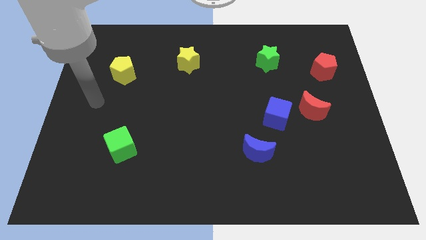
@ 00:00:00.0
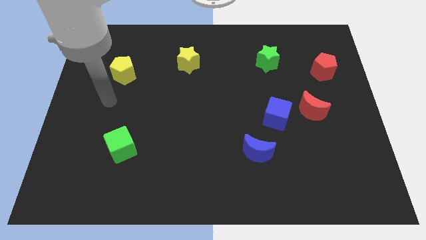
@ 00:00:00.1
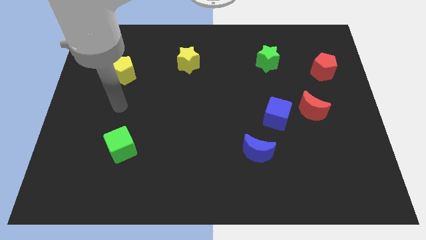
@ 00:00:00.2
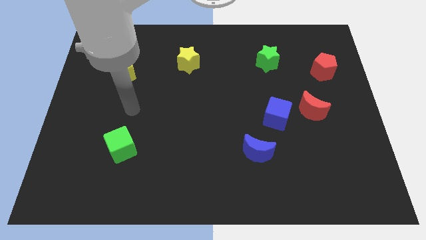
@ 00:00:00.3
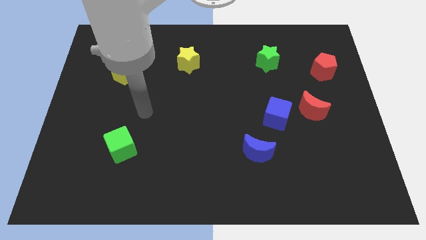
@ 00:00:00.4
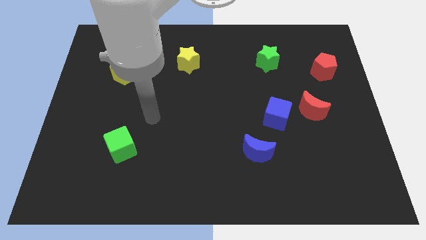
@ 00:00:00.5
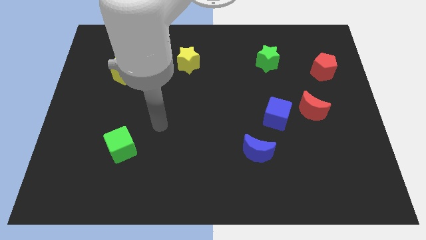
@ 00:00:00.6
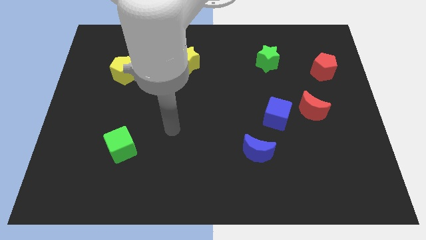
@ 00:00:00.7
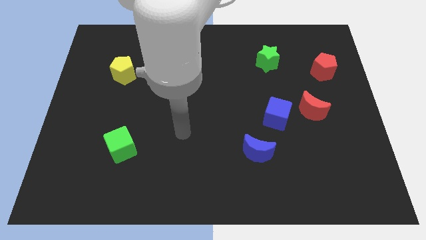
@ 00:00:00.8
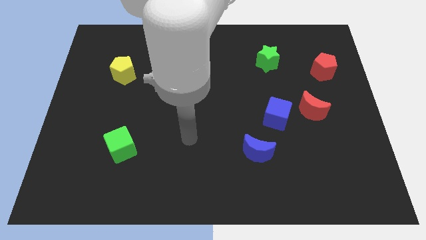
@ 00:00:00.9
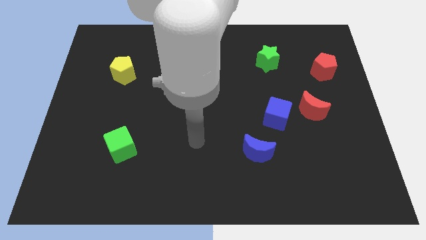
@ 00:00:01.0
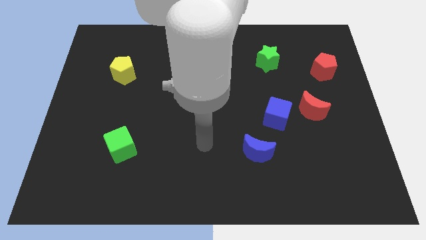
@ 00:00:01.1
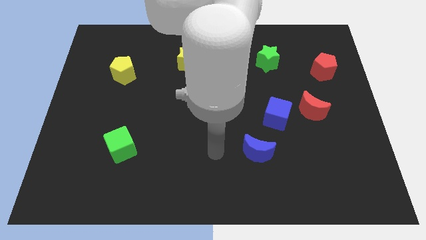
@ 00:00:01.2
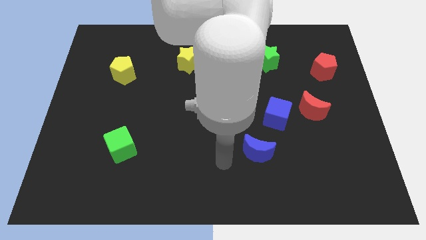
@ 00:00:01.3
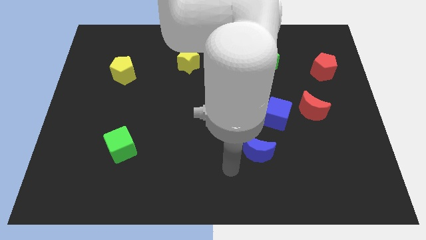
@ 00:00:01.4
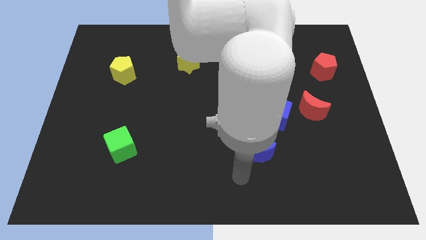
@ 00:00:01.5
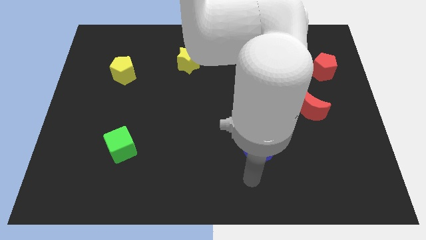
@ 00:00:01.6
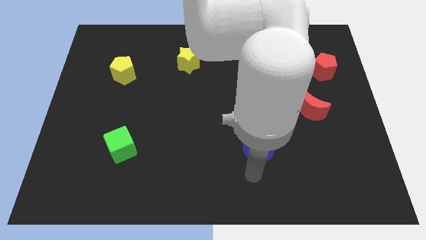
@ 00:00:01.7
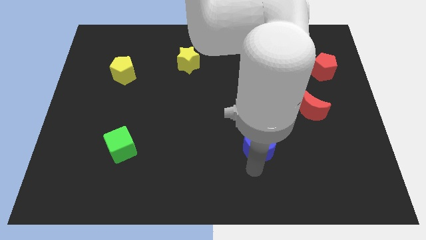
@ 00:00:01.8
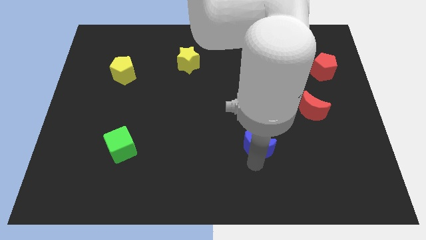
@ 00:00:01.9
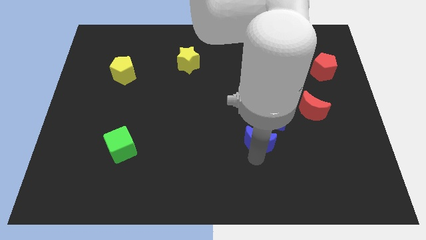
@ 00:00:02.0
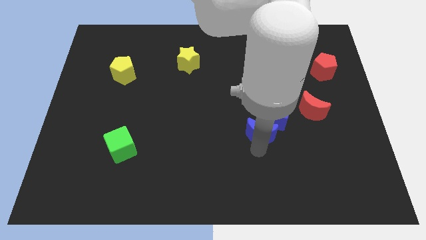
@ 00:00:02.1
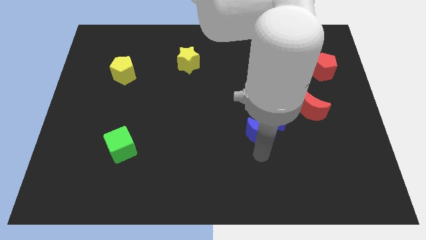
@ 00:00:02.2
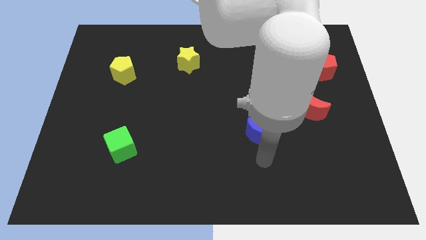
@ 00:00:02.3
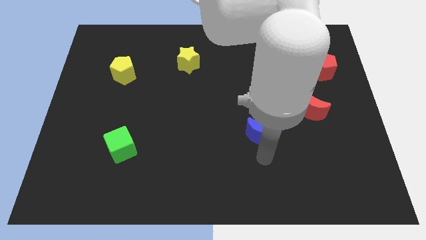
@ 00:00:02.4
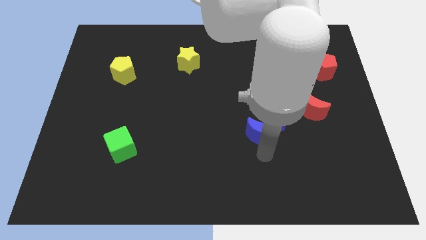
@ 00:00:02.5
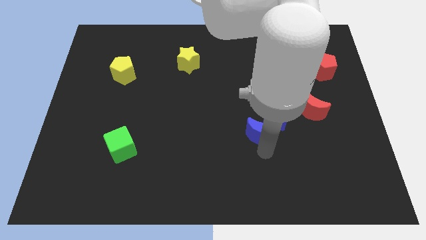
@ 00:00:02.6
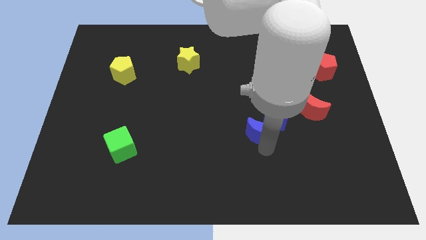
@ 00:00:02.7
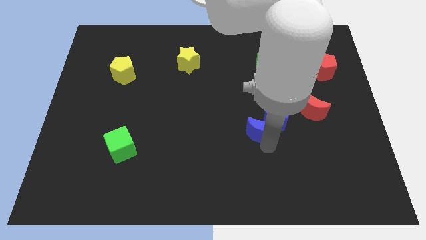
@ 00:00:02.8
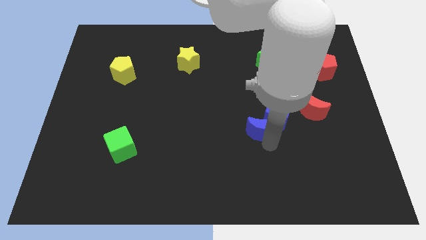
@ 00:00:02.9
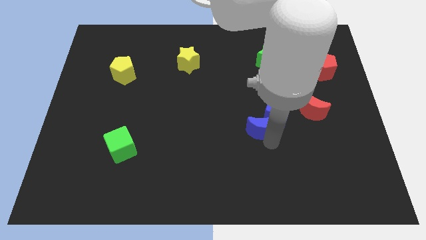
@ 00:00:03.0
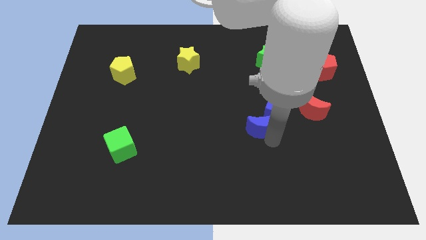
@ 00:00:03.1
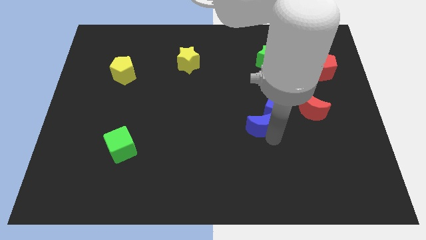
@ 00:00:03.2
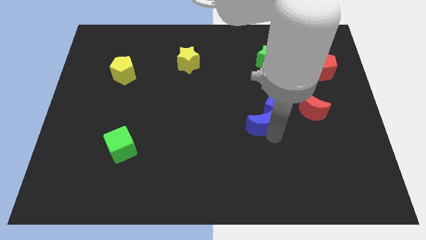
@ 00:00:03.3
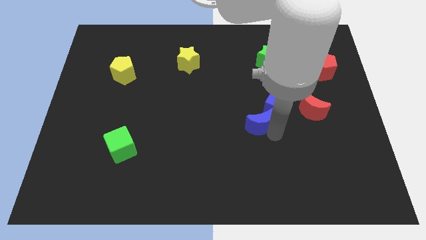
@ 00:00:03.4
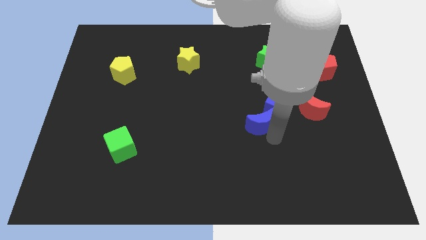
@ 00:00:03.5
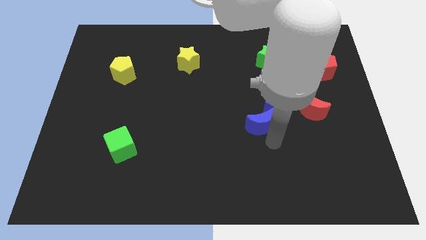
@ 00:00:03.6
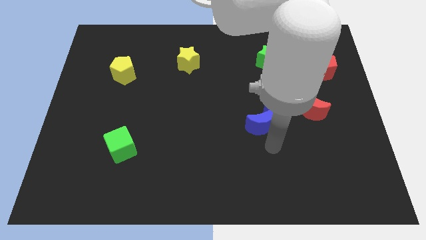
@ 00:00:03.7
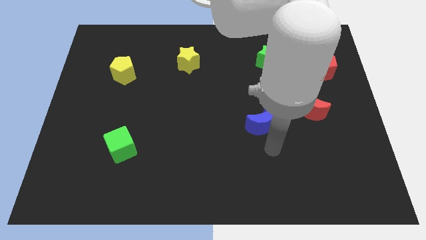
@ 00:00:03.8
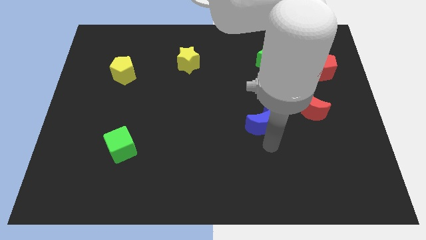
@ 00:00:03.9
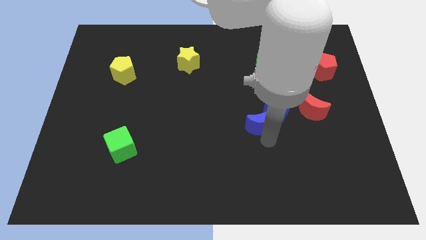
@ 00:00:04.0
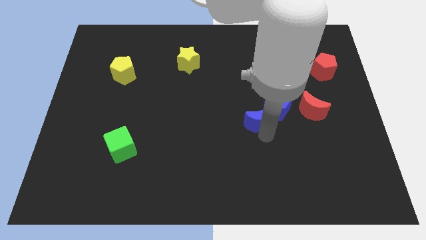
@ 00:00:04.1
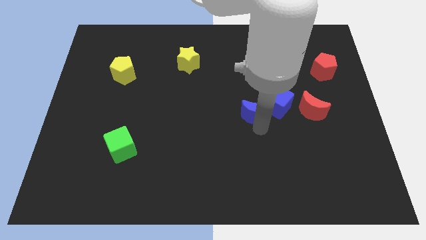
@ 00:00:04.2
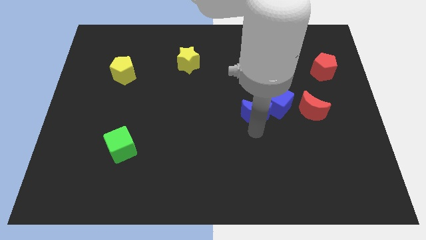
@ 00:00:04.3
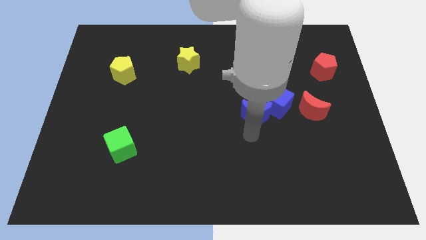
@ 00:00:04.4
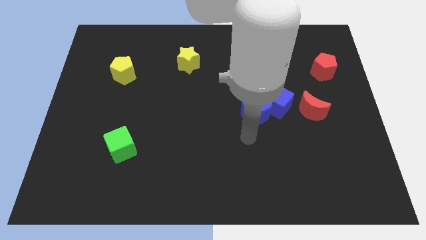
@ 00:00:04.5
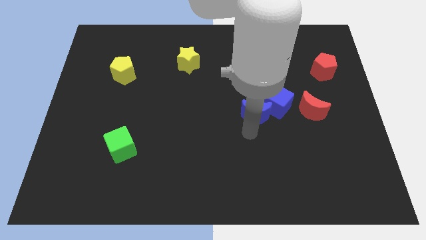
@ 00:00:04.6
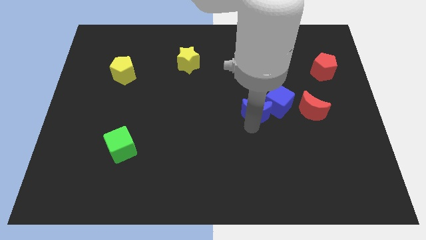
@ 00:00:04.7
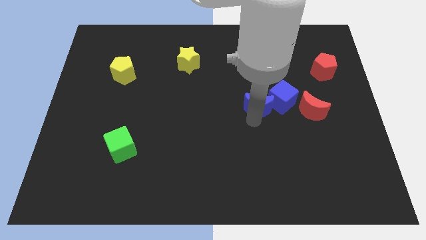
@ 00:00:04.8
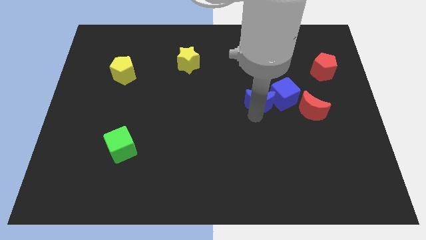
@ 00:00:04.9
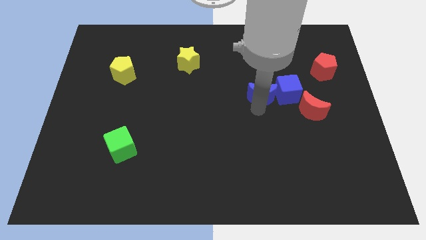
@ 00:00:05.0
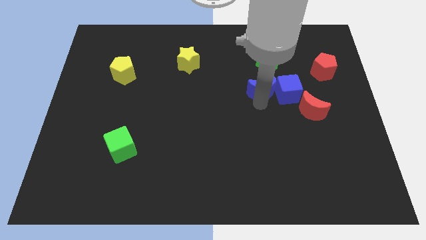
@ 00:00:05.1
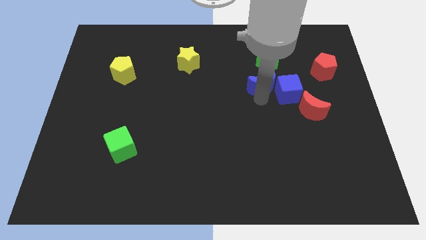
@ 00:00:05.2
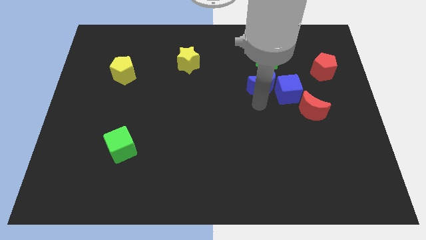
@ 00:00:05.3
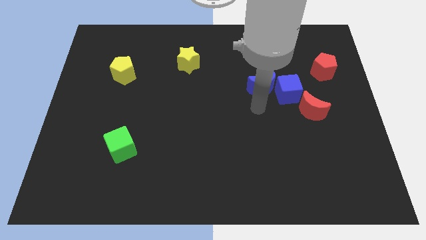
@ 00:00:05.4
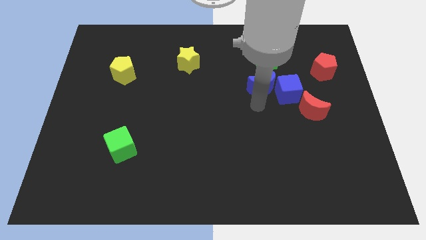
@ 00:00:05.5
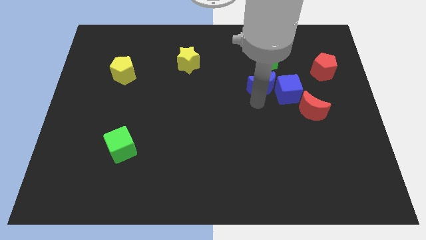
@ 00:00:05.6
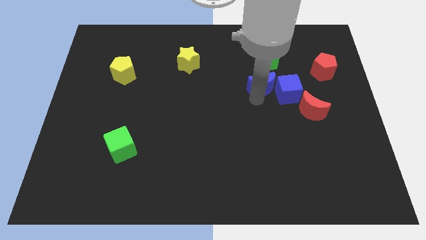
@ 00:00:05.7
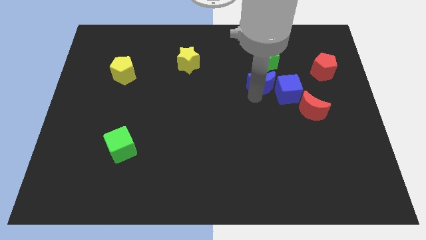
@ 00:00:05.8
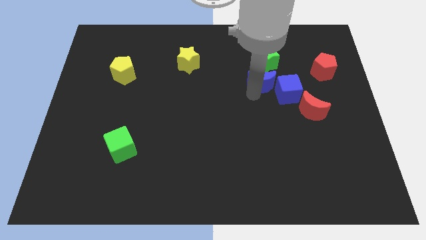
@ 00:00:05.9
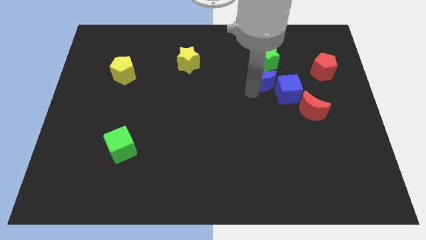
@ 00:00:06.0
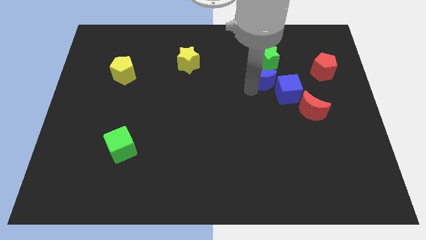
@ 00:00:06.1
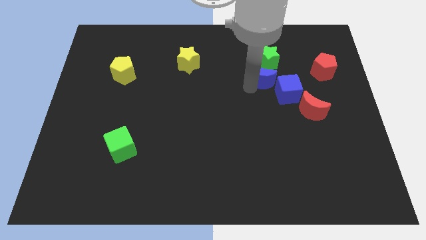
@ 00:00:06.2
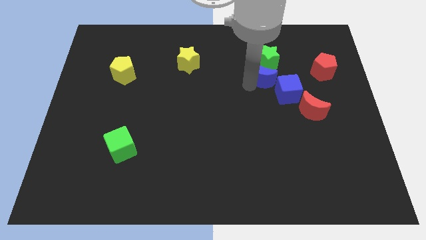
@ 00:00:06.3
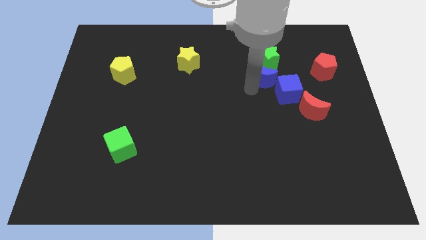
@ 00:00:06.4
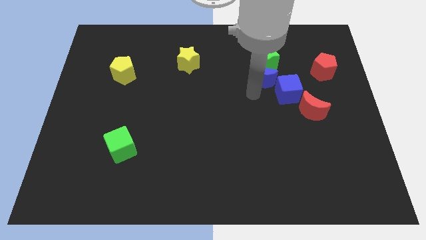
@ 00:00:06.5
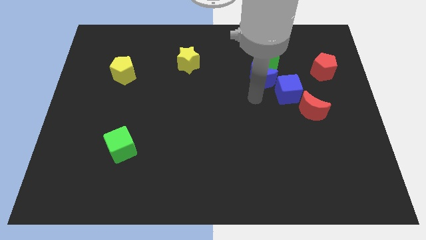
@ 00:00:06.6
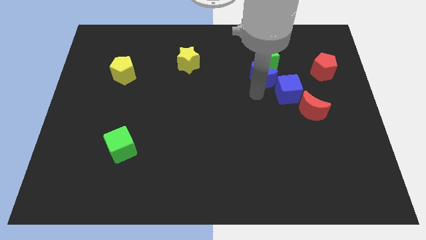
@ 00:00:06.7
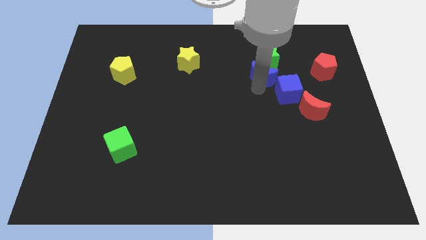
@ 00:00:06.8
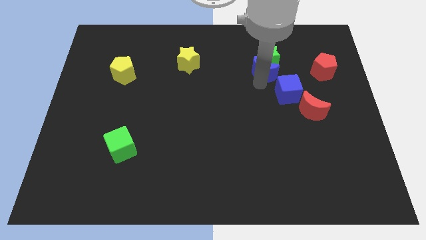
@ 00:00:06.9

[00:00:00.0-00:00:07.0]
slide the blue moon towards the green star

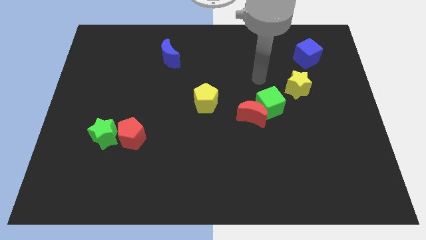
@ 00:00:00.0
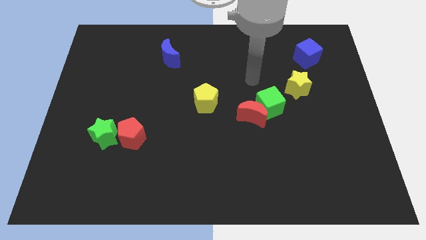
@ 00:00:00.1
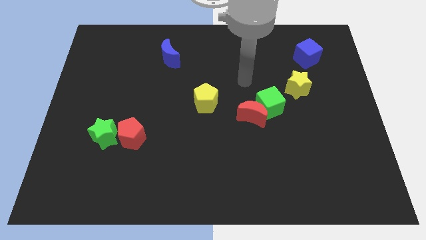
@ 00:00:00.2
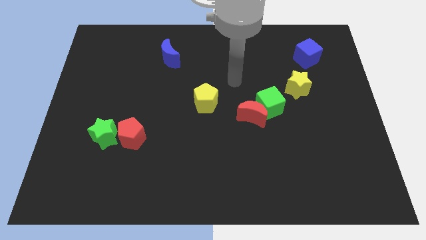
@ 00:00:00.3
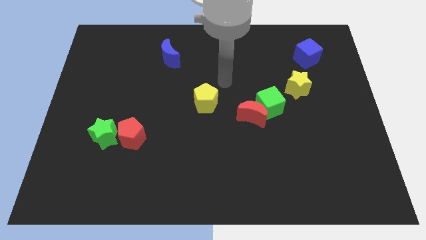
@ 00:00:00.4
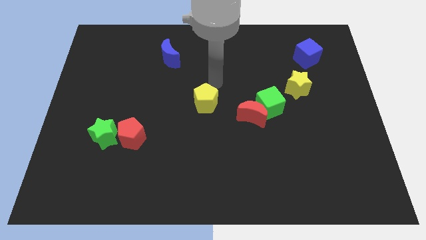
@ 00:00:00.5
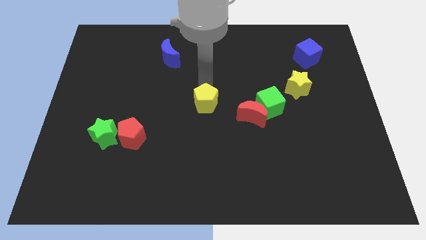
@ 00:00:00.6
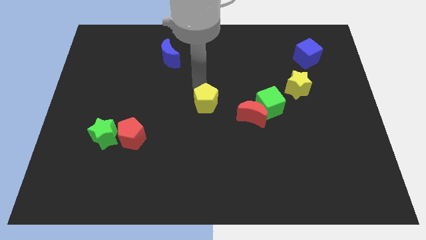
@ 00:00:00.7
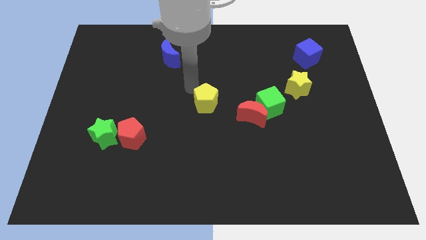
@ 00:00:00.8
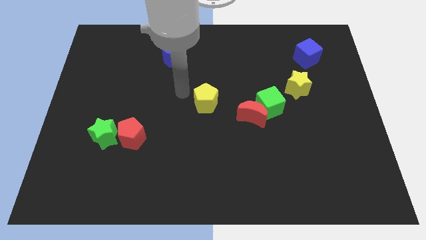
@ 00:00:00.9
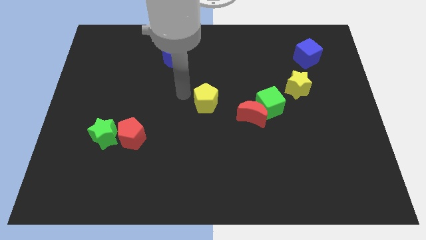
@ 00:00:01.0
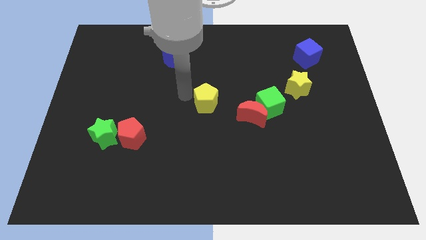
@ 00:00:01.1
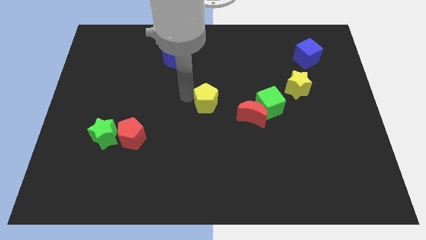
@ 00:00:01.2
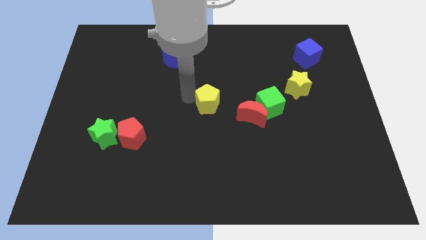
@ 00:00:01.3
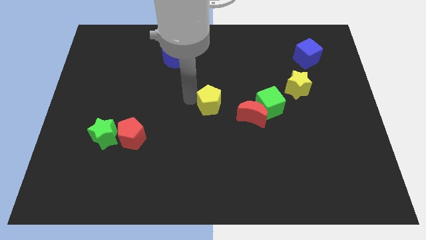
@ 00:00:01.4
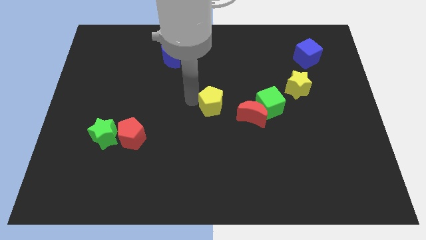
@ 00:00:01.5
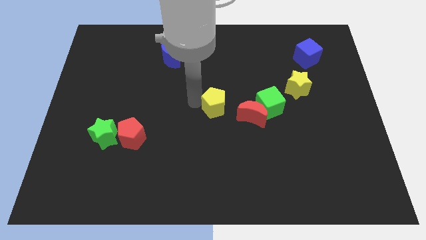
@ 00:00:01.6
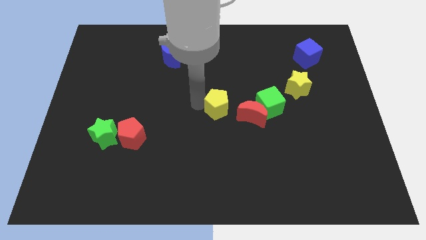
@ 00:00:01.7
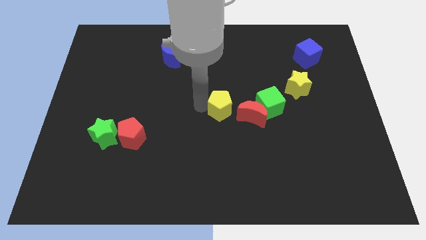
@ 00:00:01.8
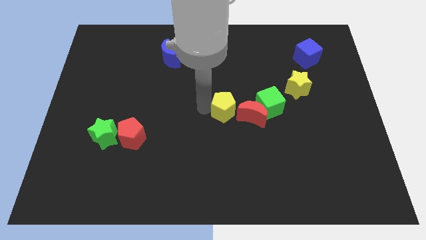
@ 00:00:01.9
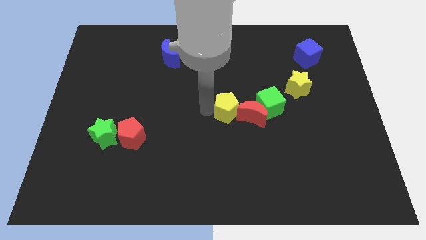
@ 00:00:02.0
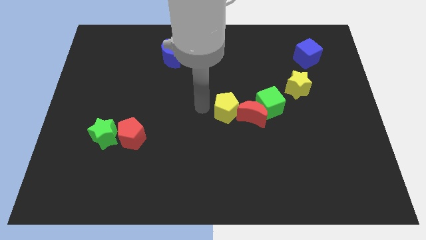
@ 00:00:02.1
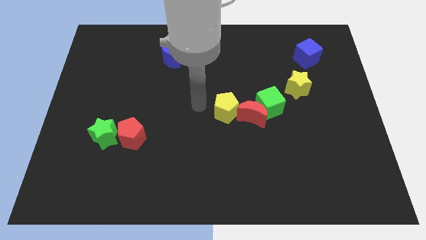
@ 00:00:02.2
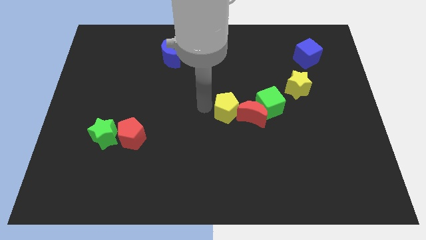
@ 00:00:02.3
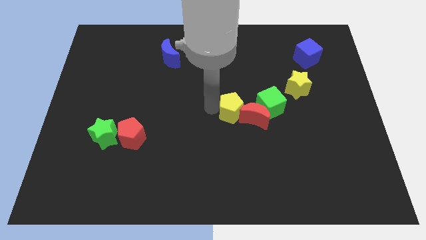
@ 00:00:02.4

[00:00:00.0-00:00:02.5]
put the yellow pentagon to the red moon
